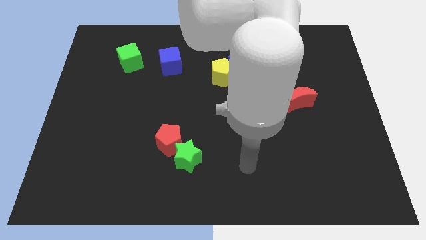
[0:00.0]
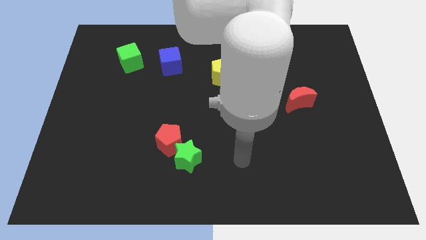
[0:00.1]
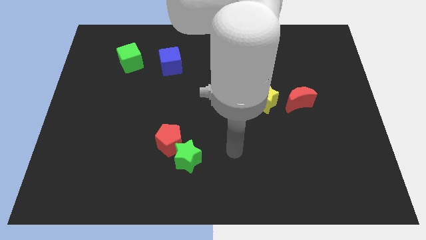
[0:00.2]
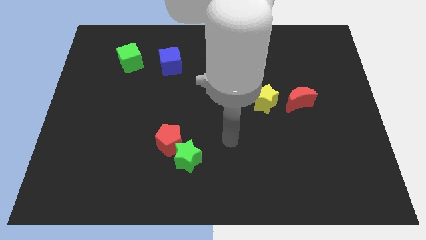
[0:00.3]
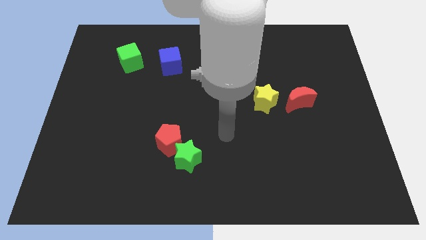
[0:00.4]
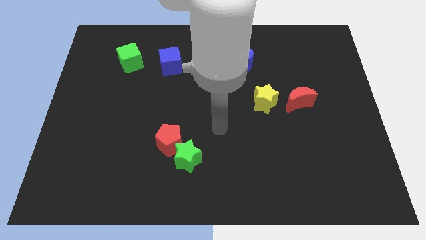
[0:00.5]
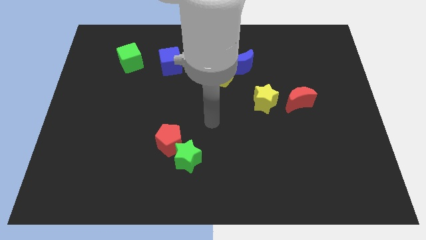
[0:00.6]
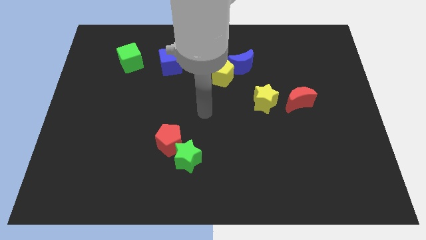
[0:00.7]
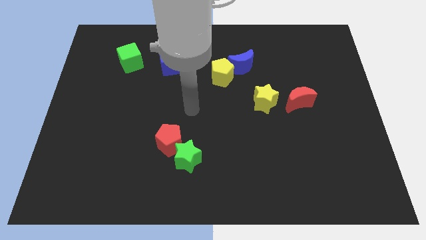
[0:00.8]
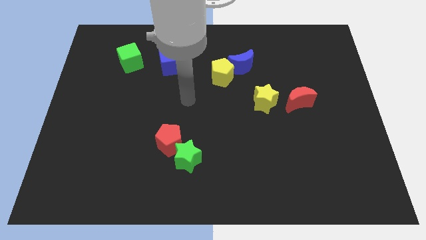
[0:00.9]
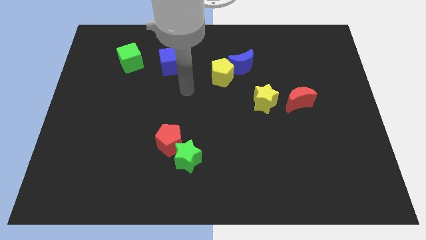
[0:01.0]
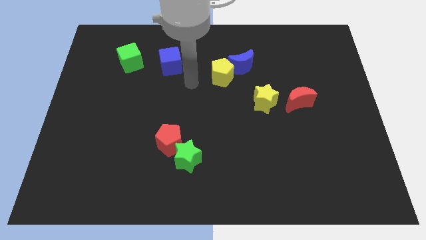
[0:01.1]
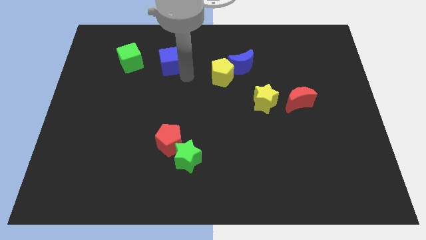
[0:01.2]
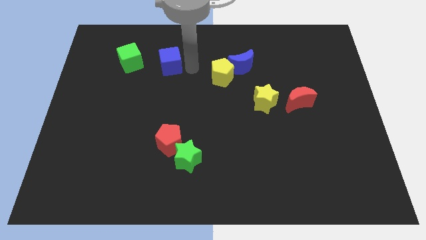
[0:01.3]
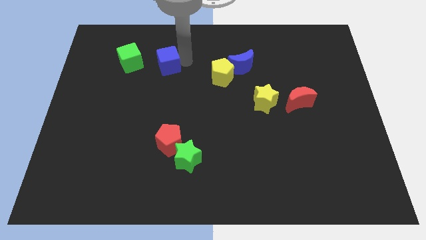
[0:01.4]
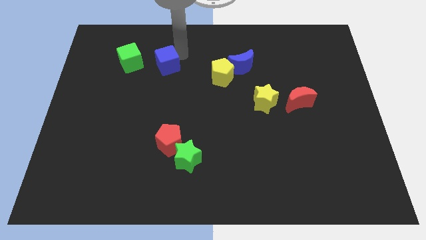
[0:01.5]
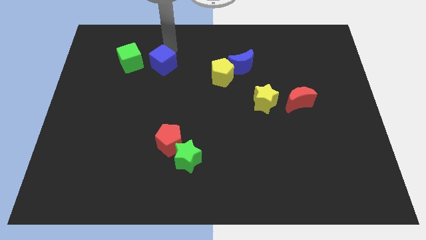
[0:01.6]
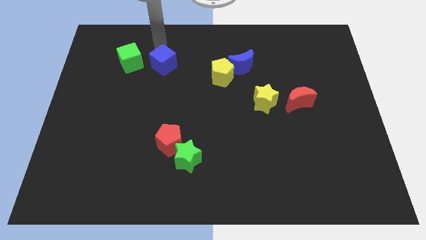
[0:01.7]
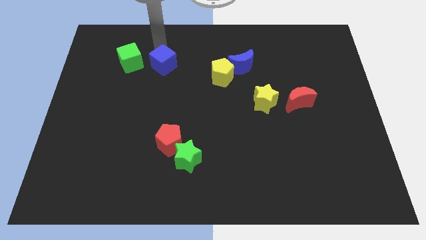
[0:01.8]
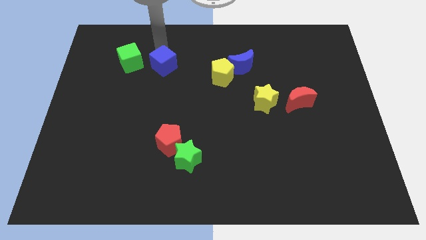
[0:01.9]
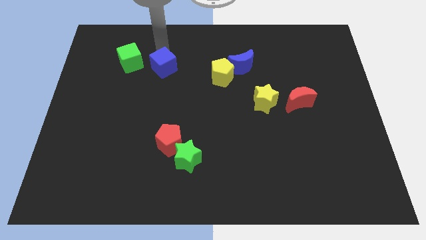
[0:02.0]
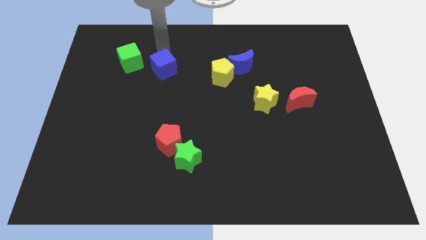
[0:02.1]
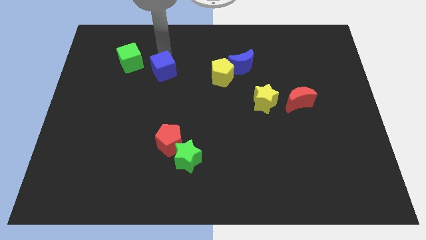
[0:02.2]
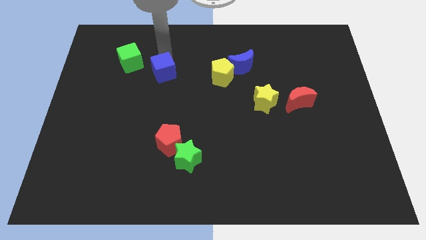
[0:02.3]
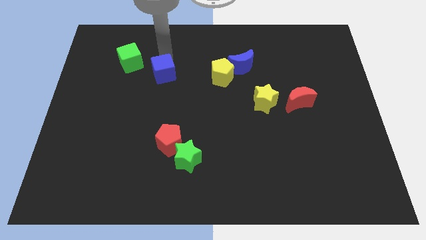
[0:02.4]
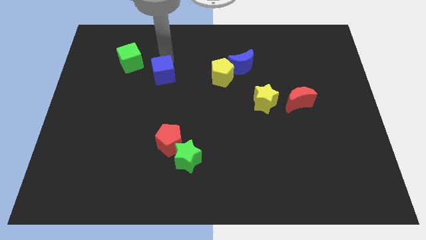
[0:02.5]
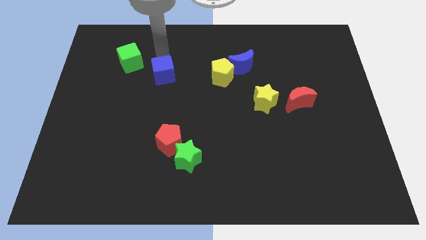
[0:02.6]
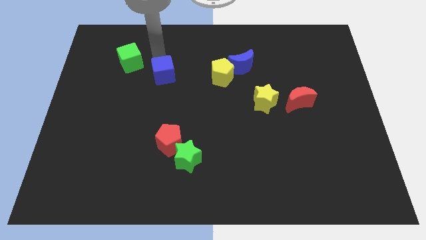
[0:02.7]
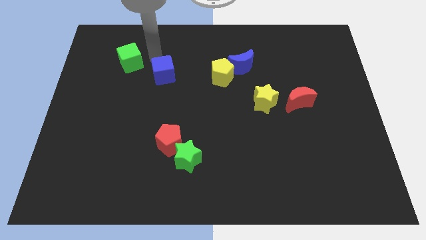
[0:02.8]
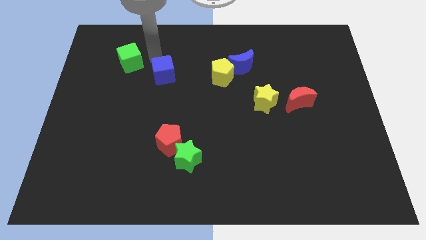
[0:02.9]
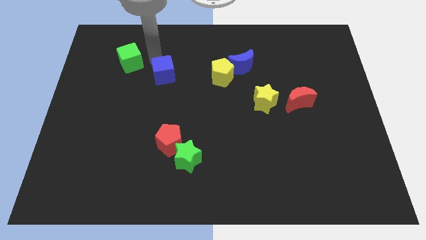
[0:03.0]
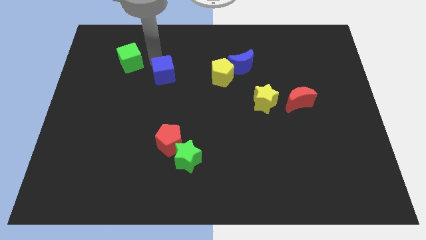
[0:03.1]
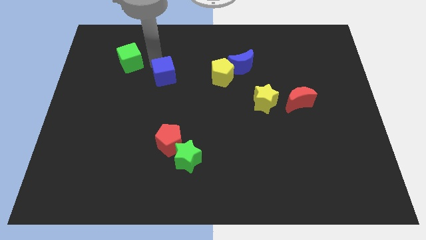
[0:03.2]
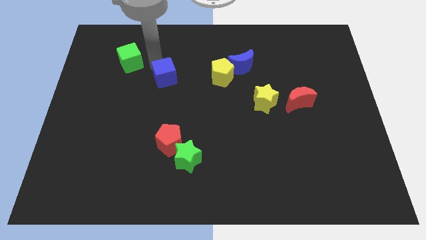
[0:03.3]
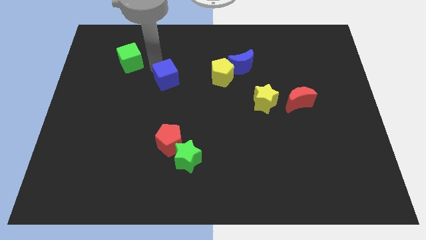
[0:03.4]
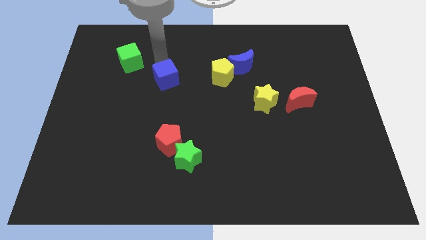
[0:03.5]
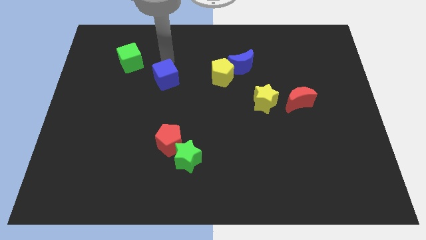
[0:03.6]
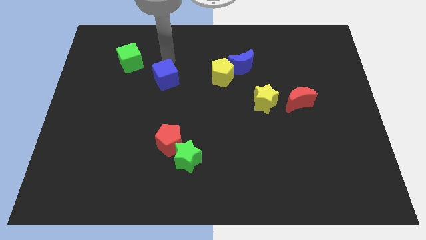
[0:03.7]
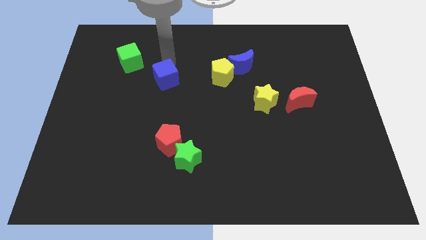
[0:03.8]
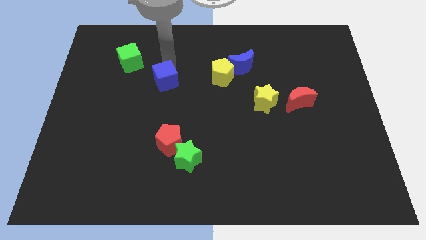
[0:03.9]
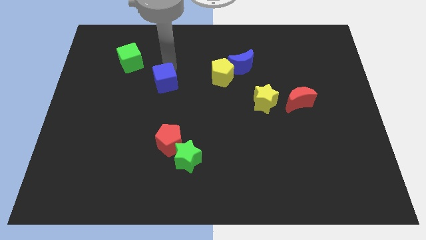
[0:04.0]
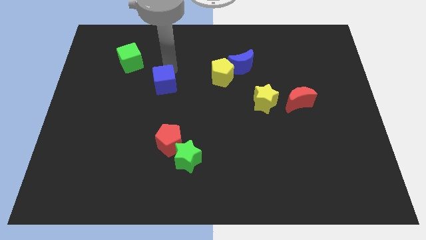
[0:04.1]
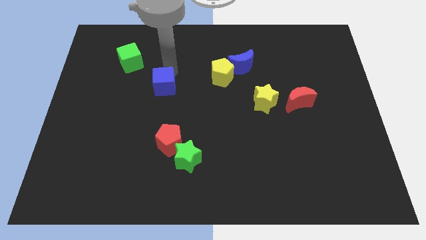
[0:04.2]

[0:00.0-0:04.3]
slightly push the blue cube downwards

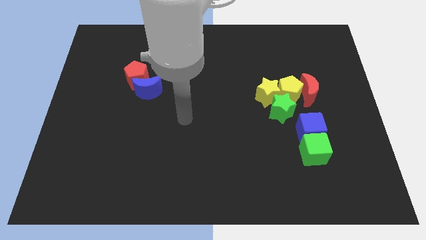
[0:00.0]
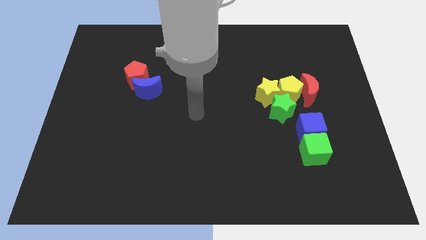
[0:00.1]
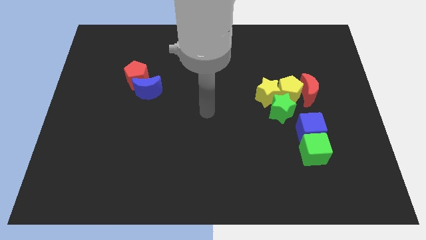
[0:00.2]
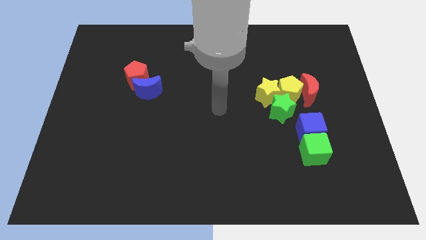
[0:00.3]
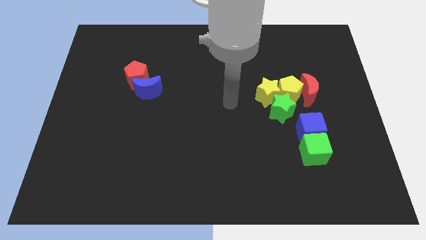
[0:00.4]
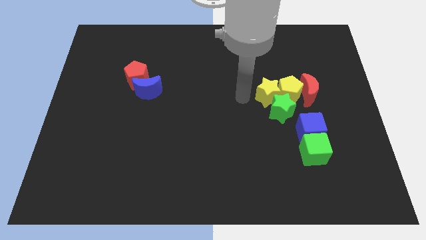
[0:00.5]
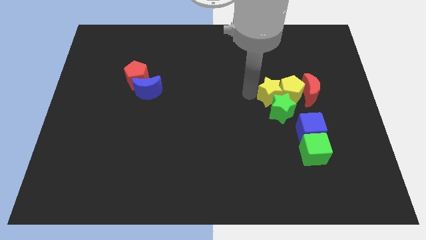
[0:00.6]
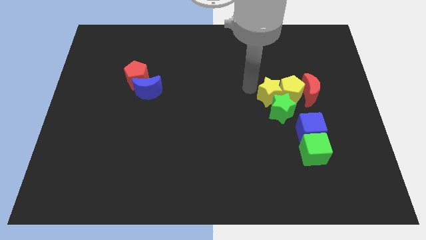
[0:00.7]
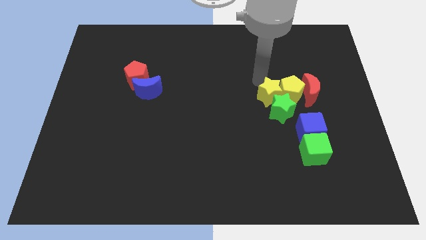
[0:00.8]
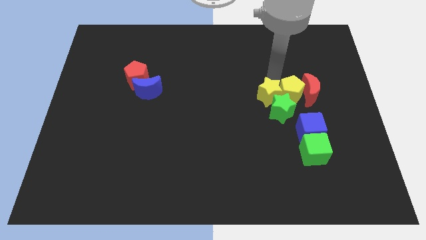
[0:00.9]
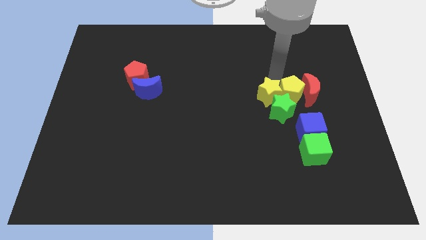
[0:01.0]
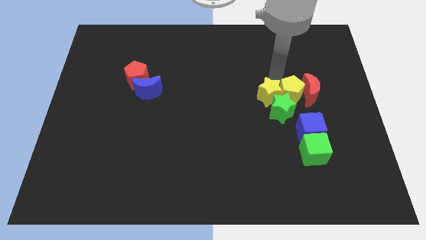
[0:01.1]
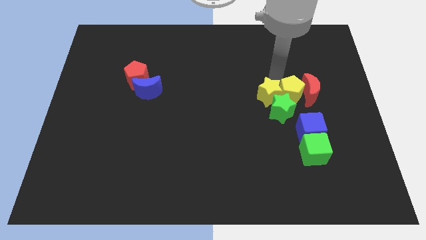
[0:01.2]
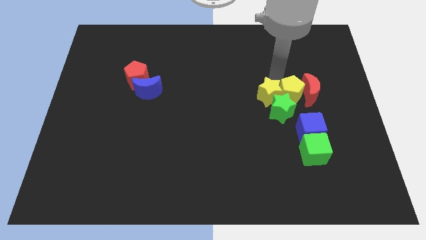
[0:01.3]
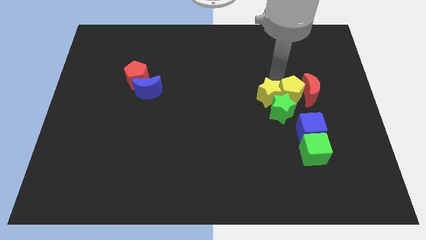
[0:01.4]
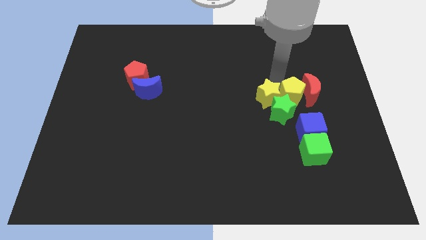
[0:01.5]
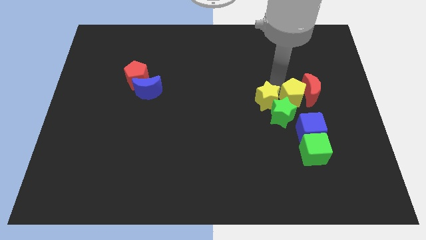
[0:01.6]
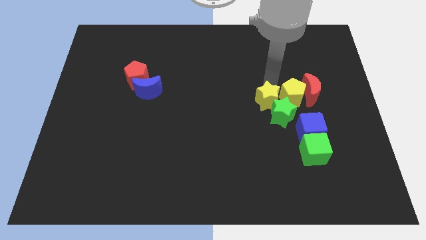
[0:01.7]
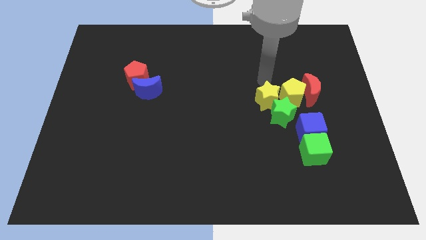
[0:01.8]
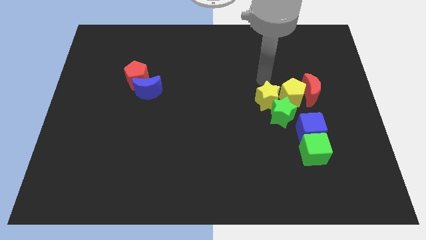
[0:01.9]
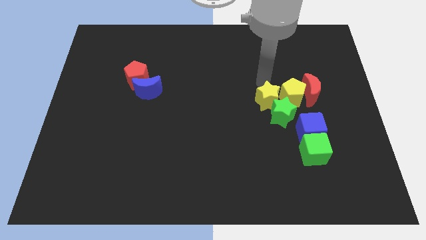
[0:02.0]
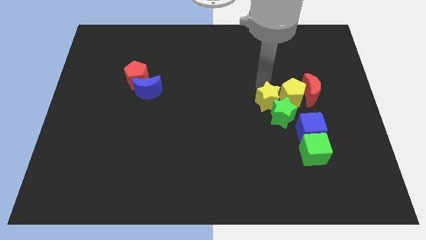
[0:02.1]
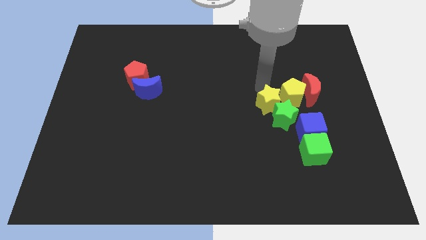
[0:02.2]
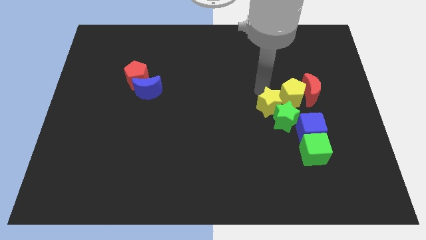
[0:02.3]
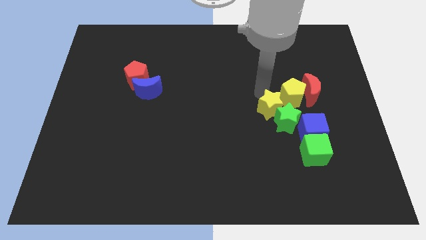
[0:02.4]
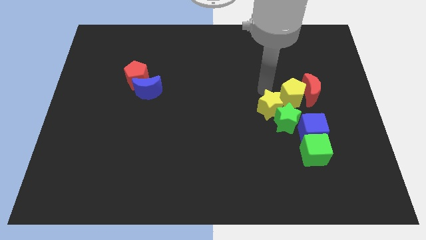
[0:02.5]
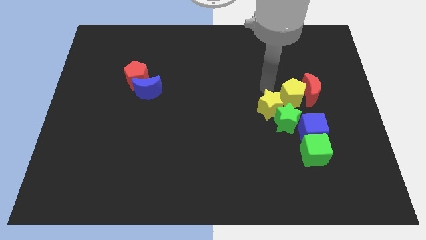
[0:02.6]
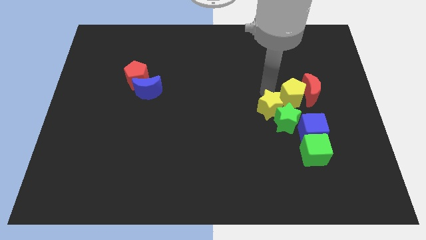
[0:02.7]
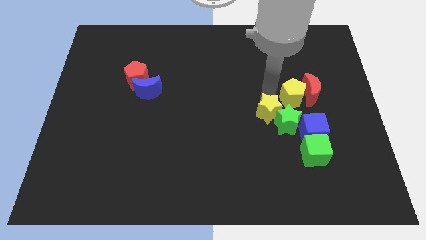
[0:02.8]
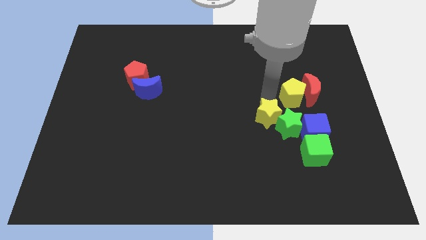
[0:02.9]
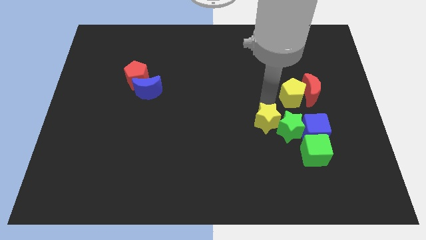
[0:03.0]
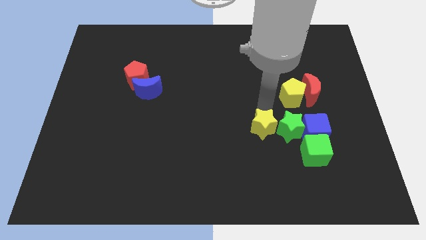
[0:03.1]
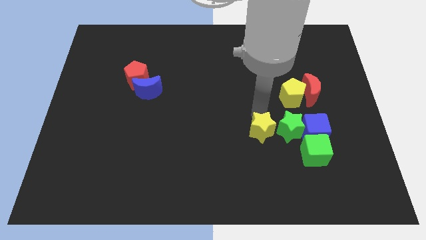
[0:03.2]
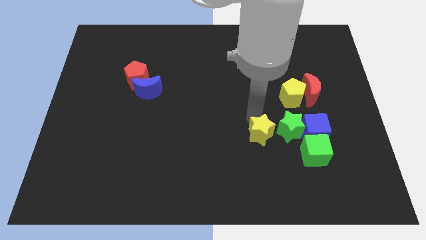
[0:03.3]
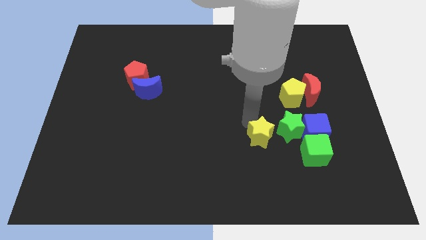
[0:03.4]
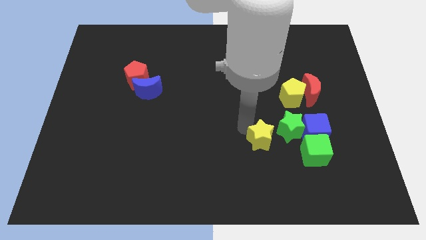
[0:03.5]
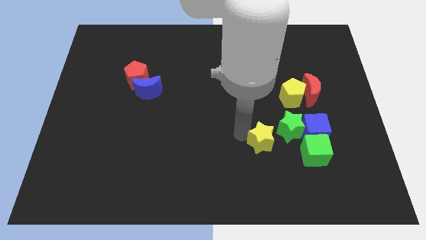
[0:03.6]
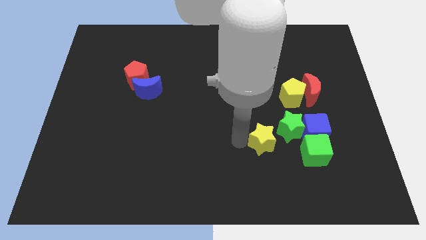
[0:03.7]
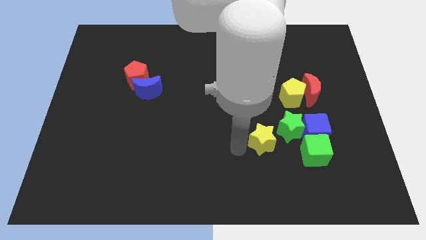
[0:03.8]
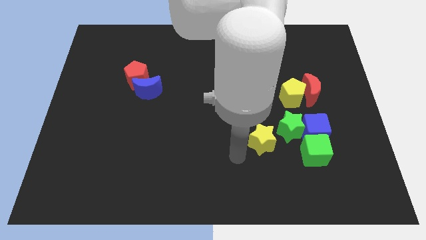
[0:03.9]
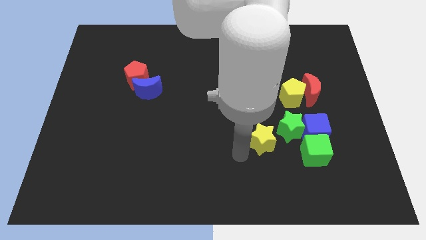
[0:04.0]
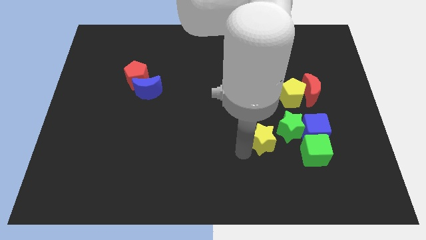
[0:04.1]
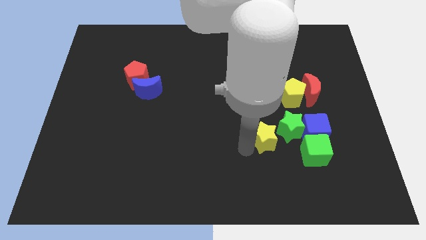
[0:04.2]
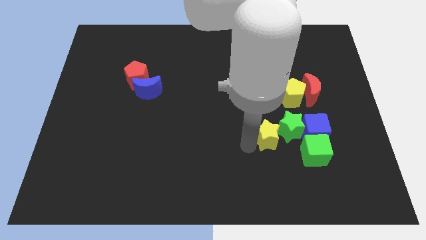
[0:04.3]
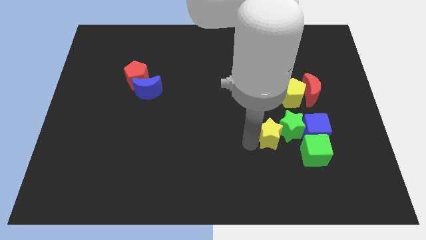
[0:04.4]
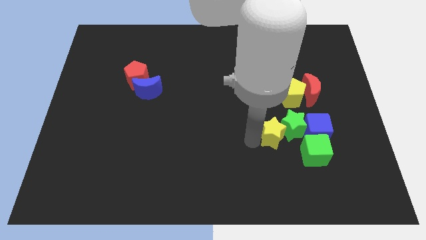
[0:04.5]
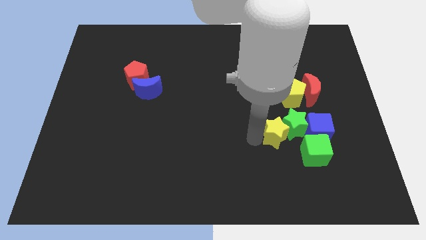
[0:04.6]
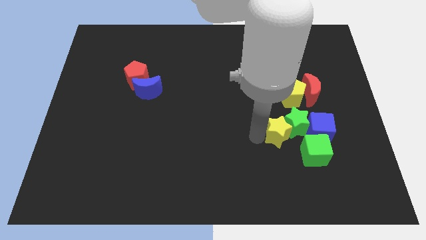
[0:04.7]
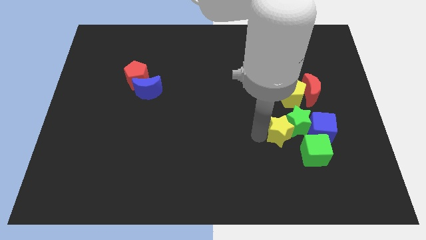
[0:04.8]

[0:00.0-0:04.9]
slightly slide the yellow star down and right diagonally
